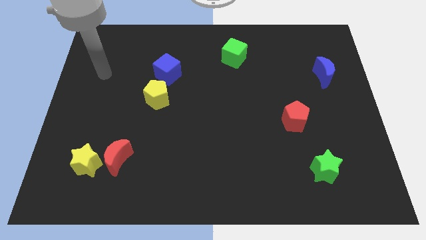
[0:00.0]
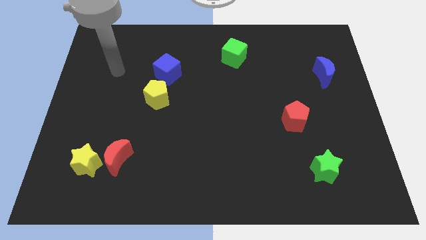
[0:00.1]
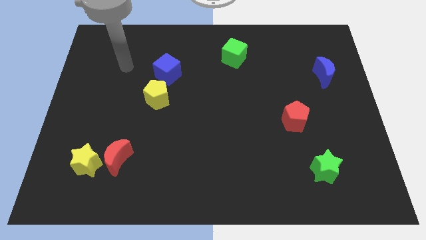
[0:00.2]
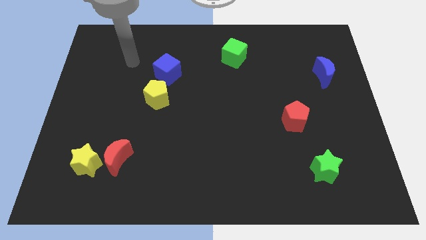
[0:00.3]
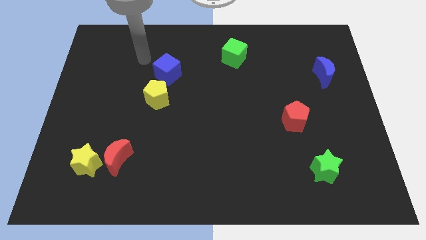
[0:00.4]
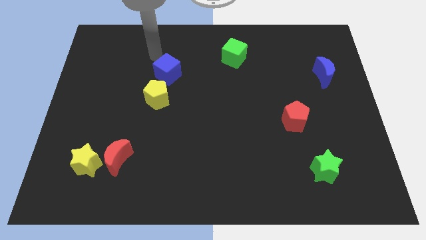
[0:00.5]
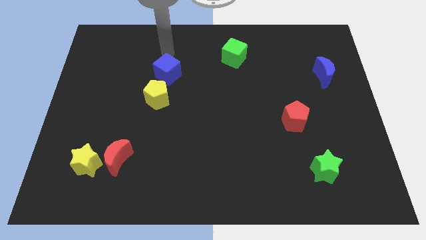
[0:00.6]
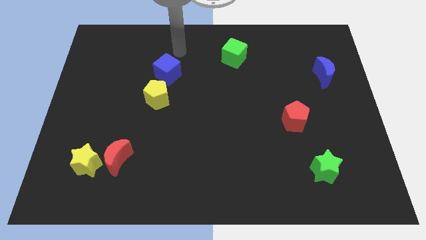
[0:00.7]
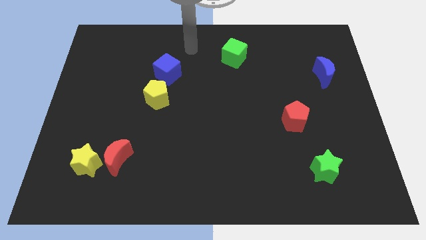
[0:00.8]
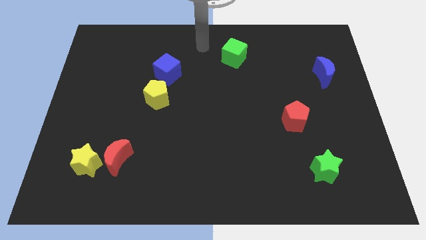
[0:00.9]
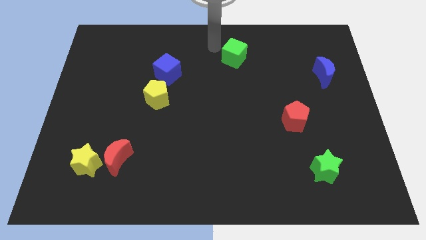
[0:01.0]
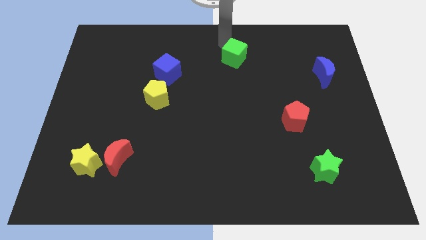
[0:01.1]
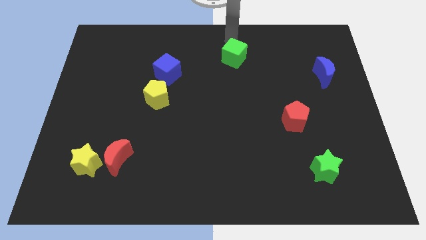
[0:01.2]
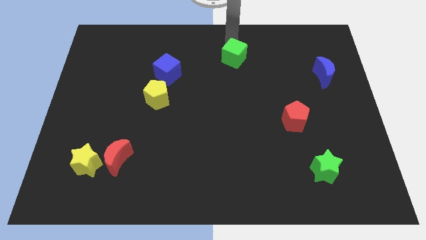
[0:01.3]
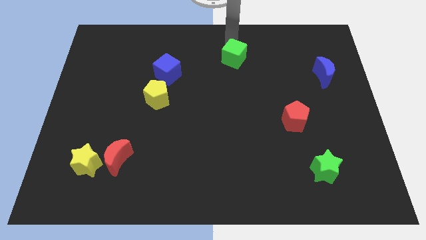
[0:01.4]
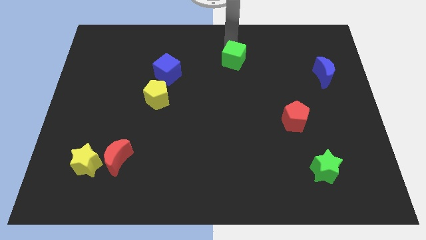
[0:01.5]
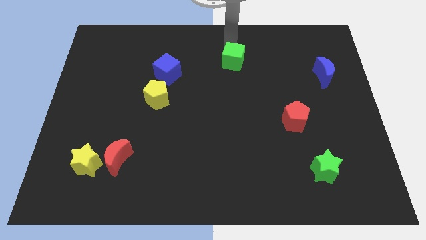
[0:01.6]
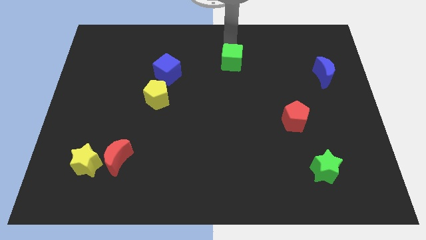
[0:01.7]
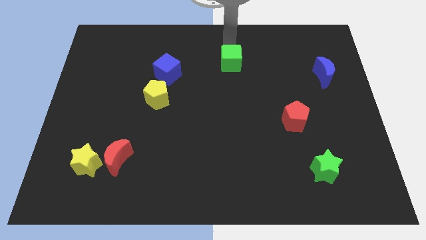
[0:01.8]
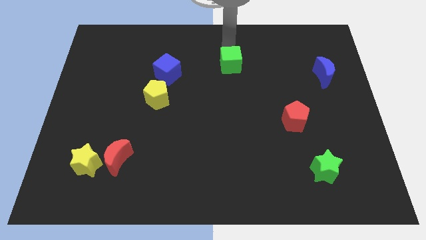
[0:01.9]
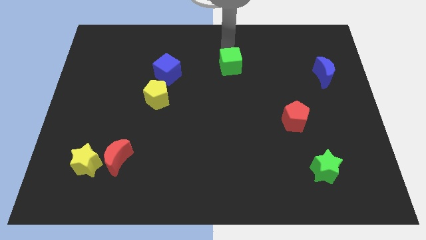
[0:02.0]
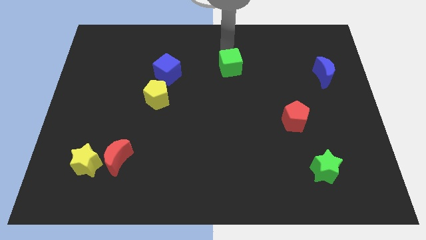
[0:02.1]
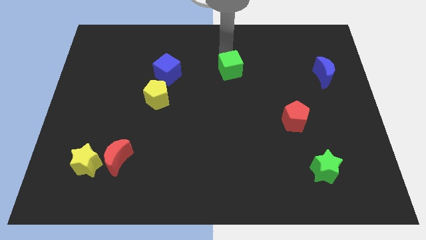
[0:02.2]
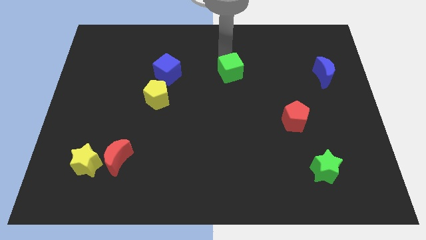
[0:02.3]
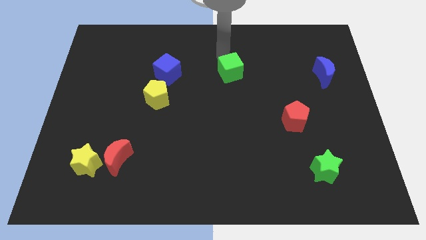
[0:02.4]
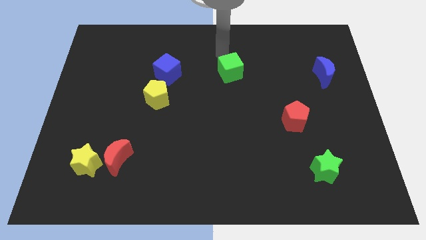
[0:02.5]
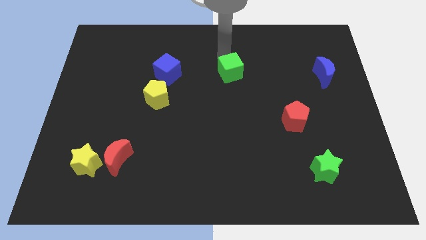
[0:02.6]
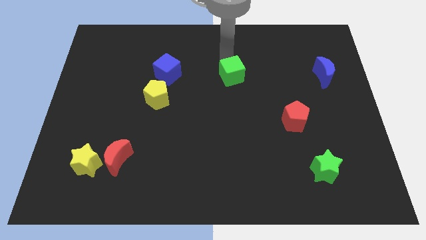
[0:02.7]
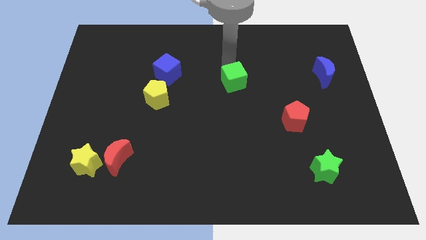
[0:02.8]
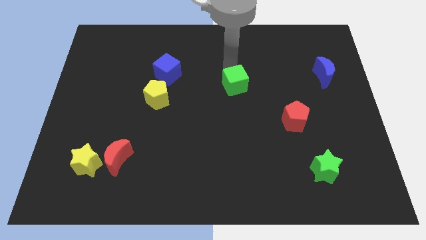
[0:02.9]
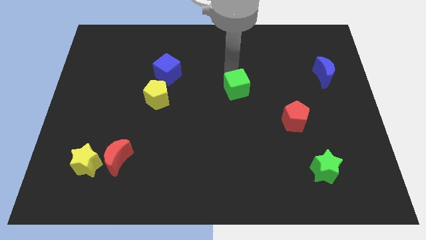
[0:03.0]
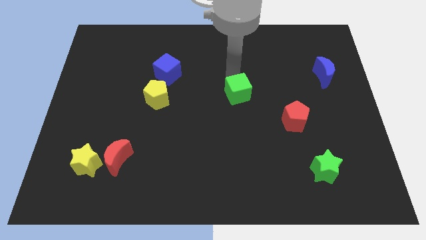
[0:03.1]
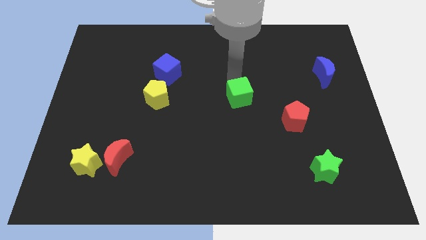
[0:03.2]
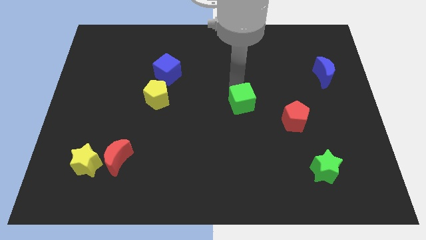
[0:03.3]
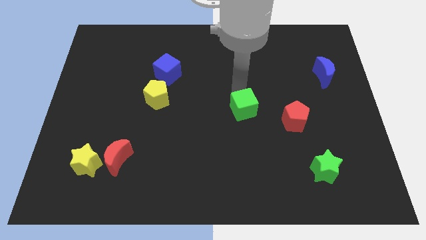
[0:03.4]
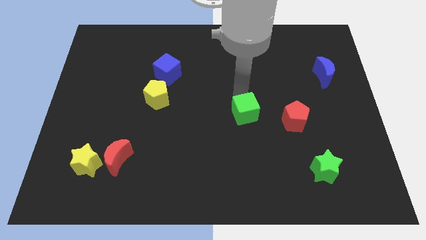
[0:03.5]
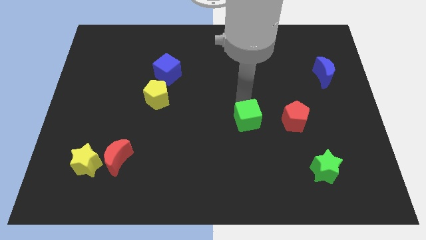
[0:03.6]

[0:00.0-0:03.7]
slide the green cube down

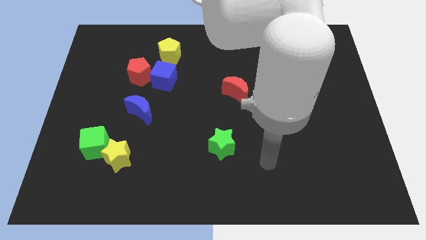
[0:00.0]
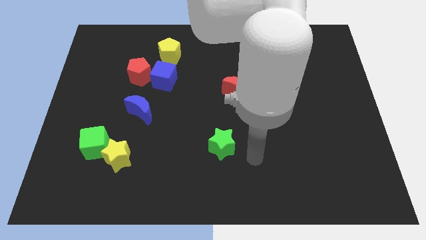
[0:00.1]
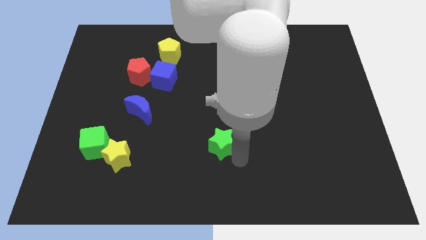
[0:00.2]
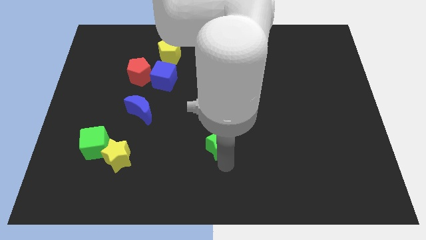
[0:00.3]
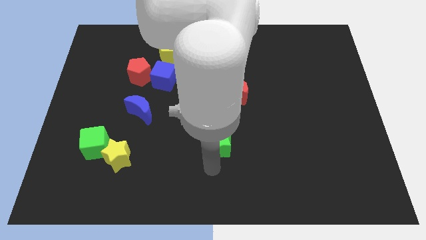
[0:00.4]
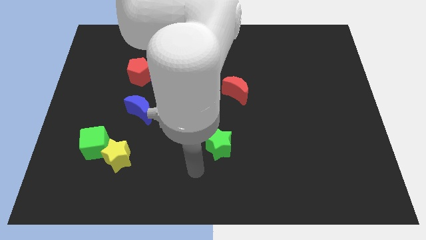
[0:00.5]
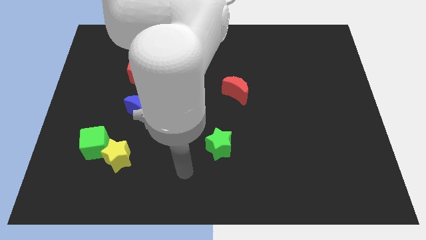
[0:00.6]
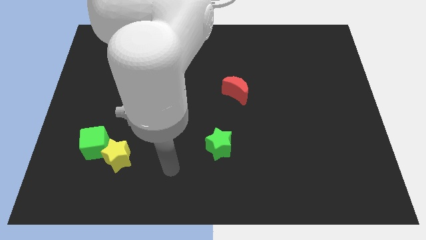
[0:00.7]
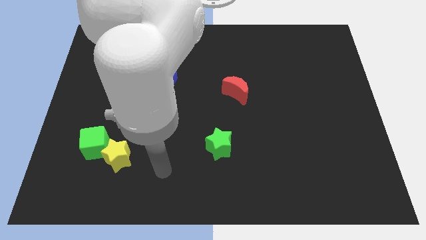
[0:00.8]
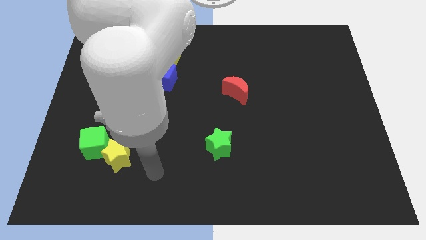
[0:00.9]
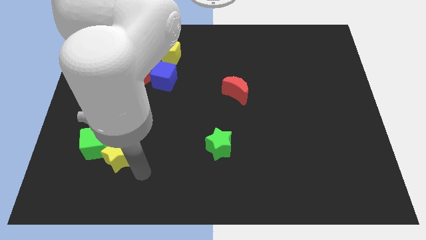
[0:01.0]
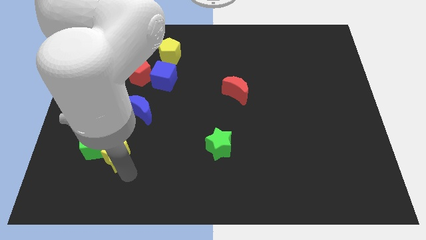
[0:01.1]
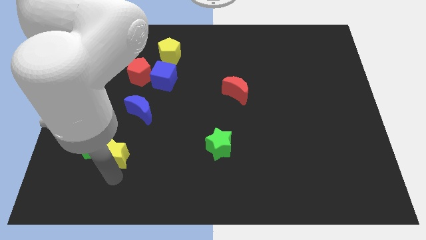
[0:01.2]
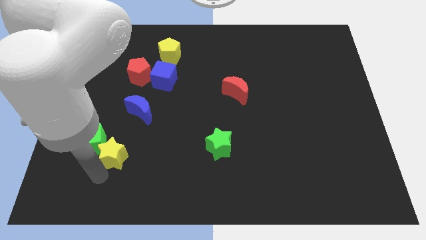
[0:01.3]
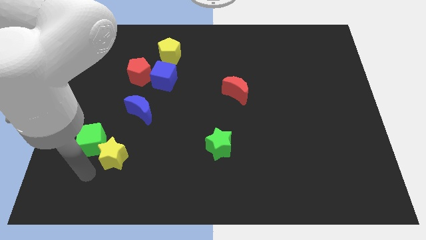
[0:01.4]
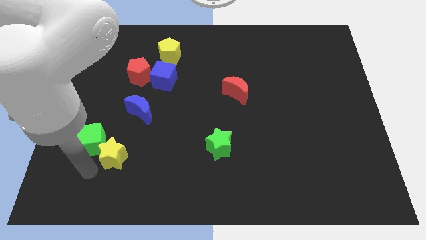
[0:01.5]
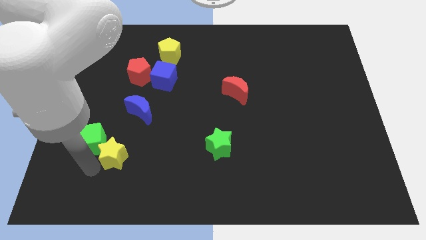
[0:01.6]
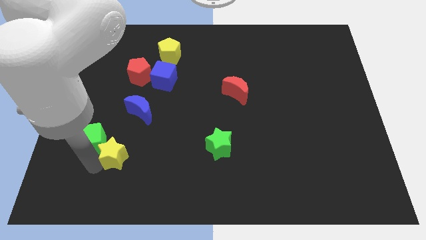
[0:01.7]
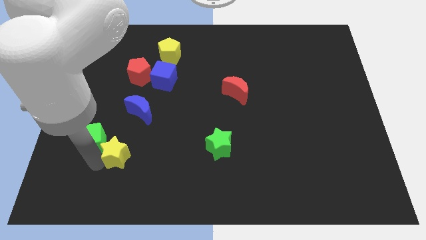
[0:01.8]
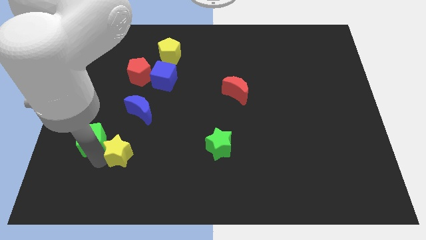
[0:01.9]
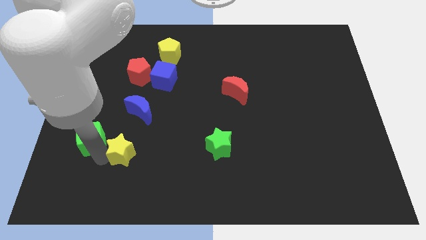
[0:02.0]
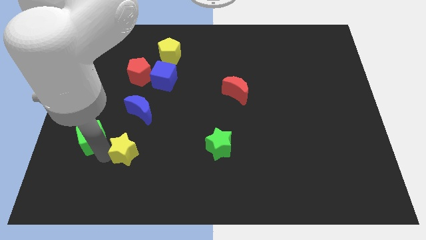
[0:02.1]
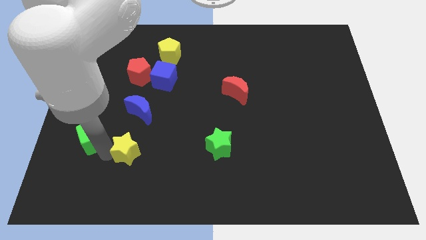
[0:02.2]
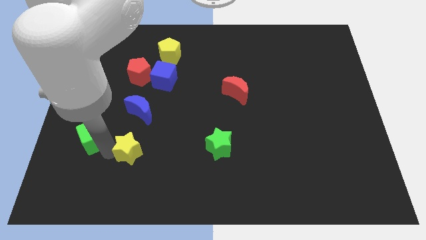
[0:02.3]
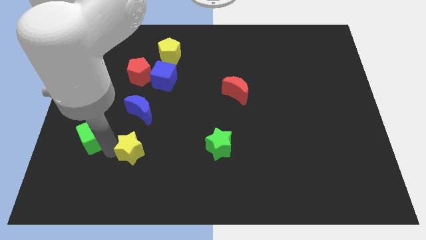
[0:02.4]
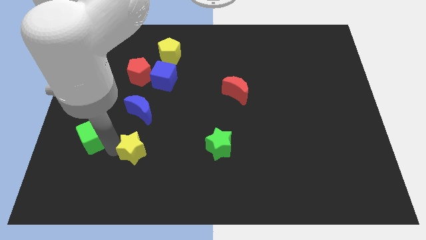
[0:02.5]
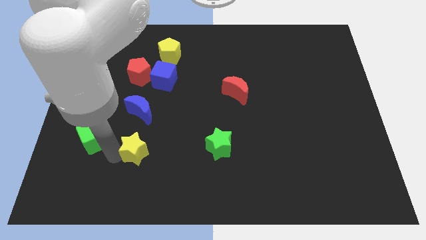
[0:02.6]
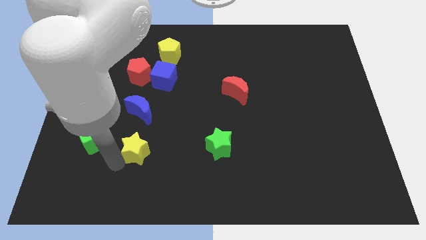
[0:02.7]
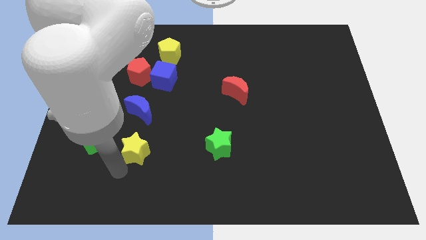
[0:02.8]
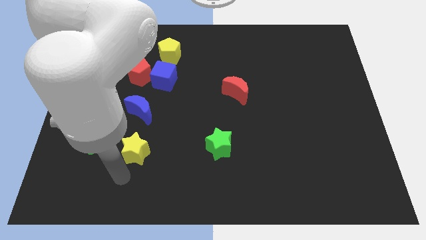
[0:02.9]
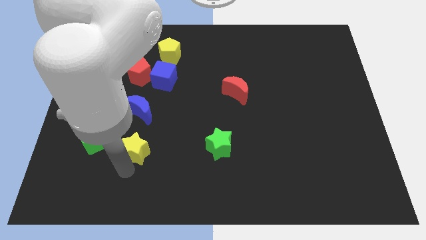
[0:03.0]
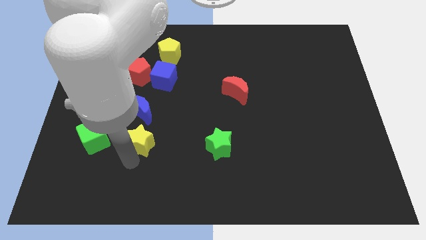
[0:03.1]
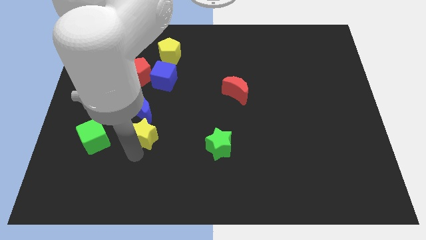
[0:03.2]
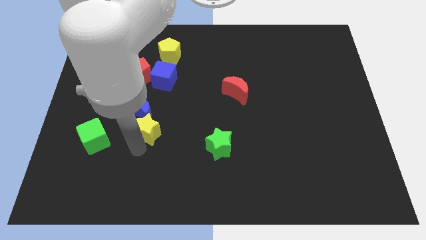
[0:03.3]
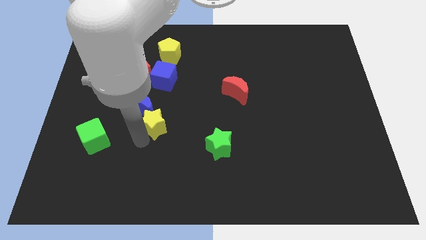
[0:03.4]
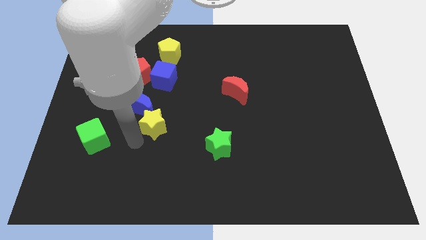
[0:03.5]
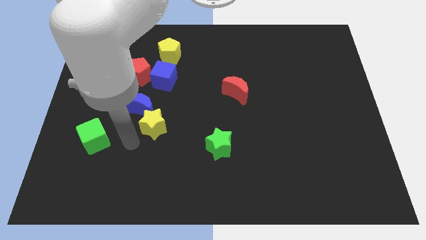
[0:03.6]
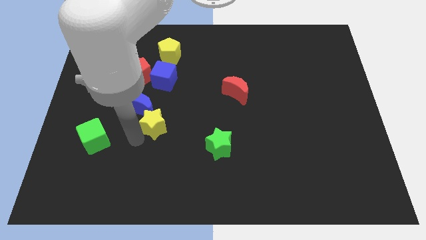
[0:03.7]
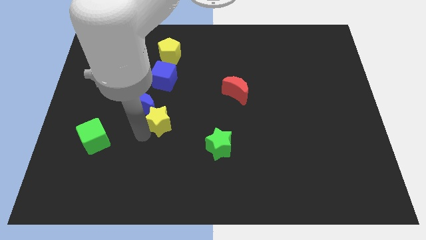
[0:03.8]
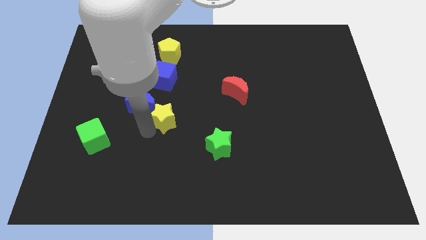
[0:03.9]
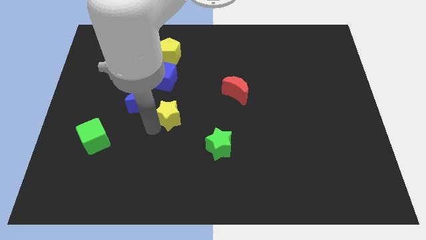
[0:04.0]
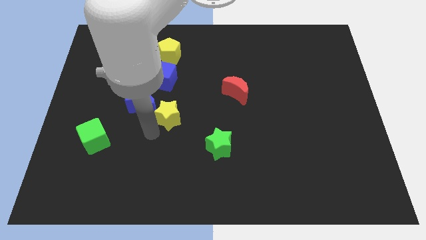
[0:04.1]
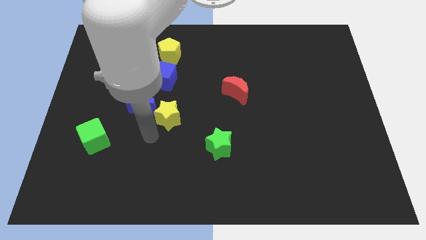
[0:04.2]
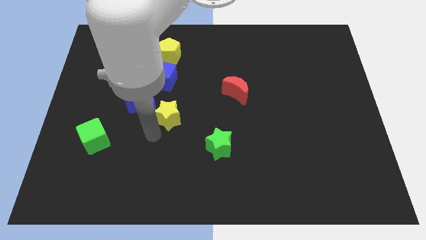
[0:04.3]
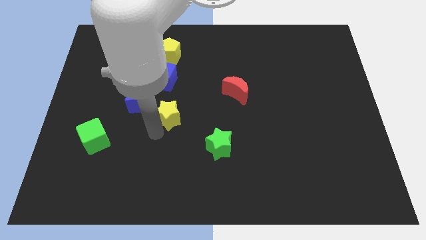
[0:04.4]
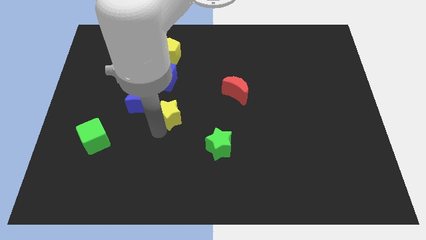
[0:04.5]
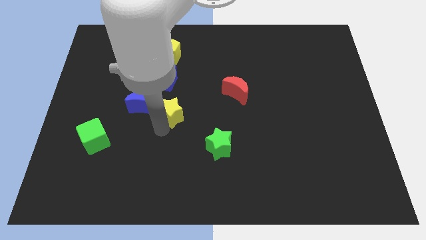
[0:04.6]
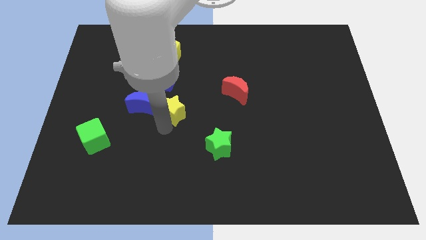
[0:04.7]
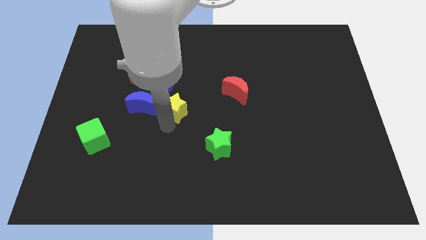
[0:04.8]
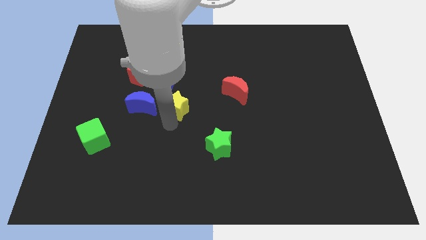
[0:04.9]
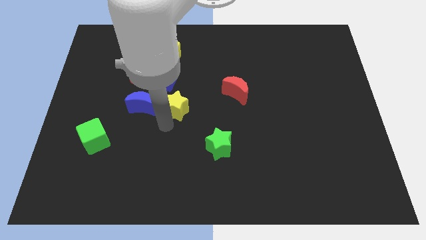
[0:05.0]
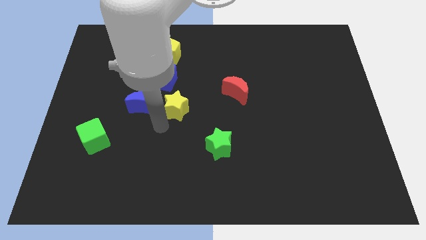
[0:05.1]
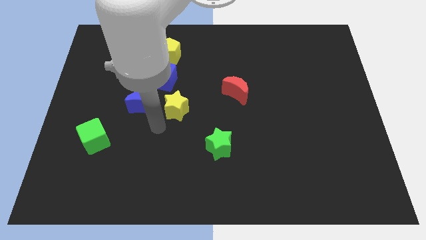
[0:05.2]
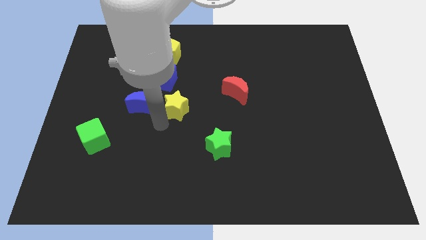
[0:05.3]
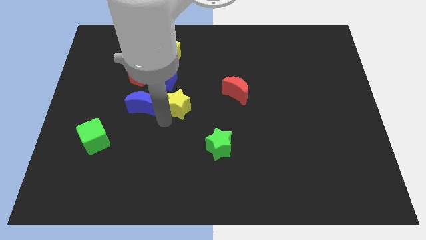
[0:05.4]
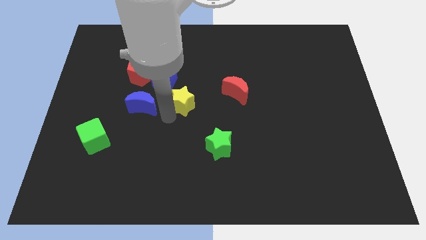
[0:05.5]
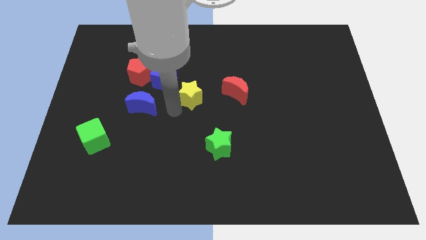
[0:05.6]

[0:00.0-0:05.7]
push the yellow star diagonally up and to the right
